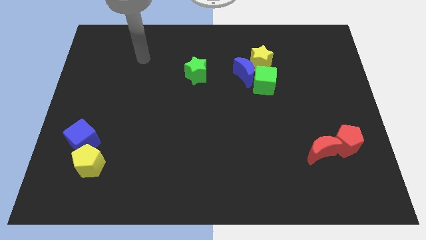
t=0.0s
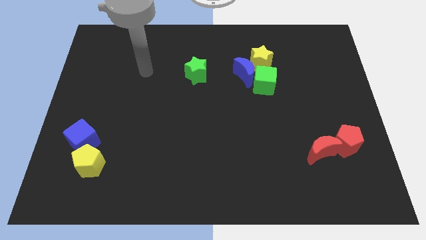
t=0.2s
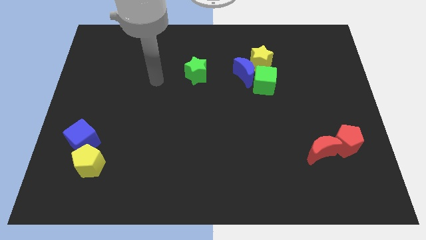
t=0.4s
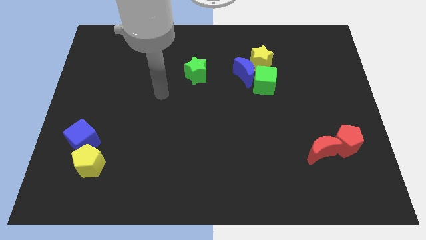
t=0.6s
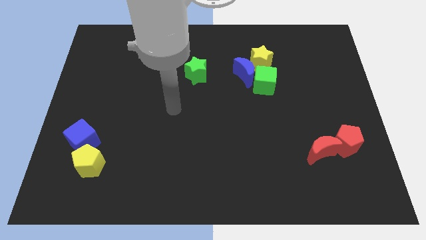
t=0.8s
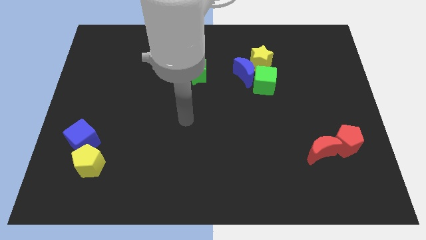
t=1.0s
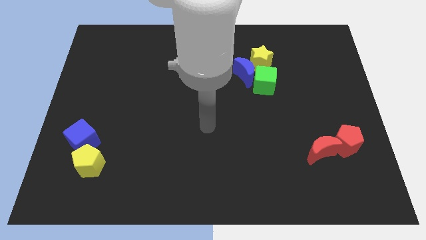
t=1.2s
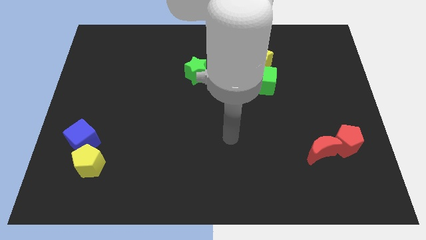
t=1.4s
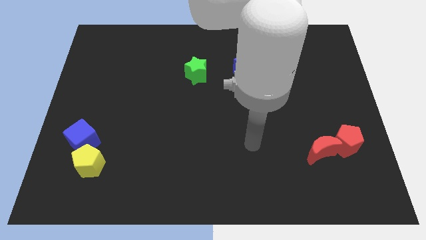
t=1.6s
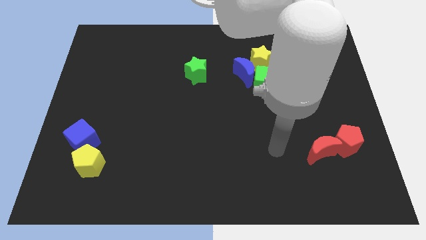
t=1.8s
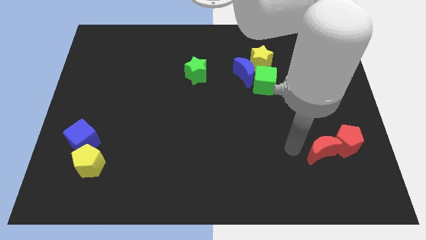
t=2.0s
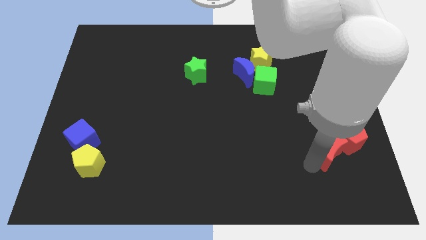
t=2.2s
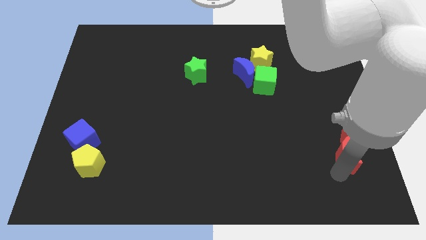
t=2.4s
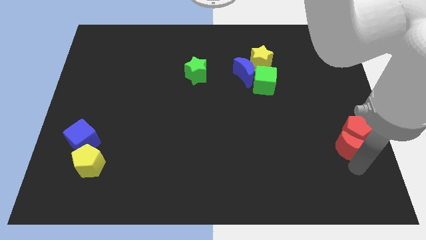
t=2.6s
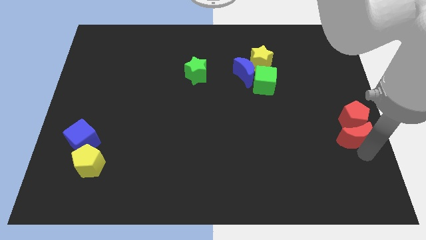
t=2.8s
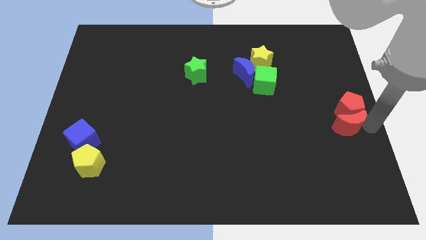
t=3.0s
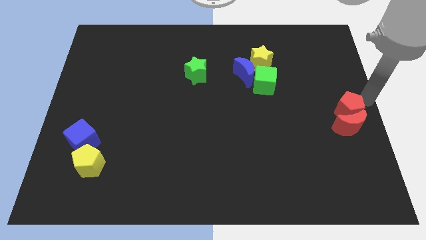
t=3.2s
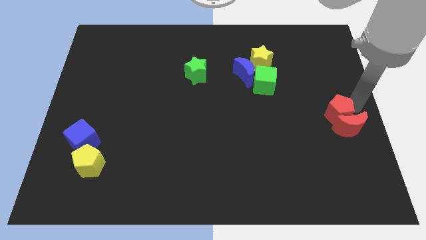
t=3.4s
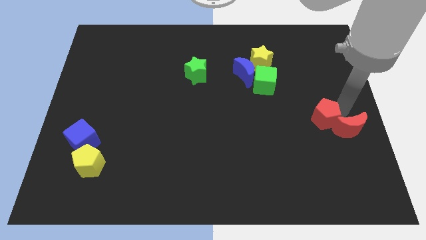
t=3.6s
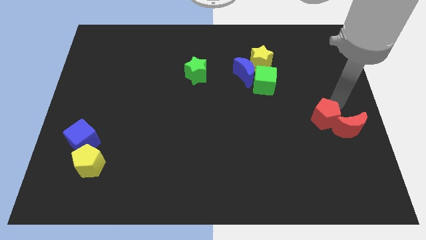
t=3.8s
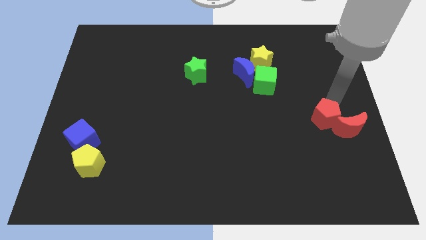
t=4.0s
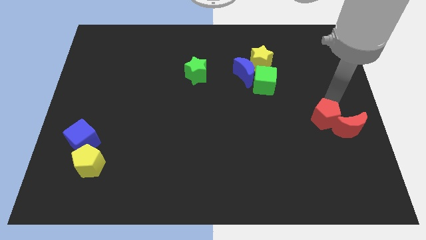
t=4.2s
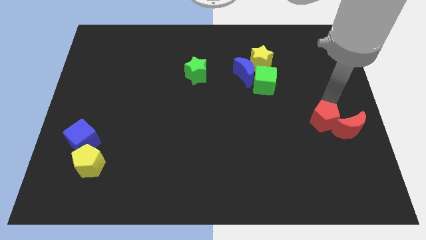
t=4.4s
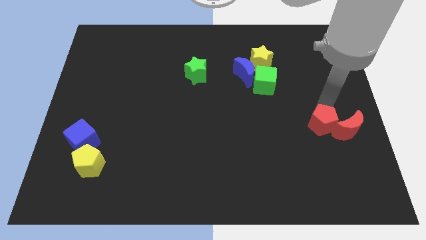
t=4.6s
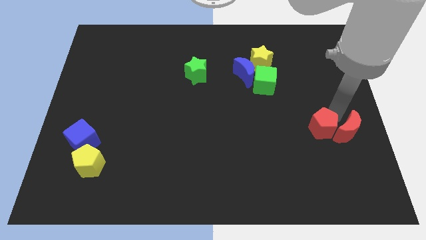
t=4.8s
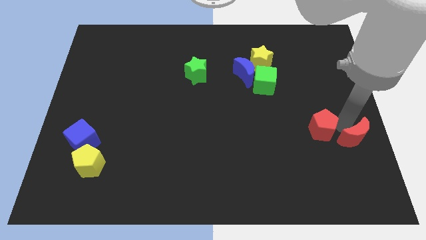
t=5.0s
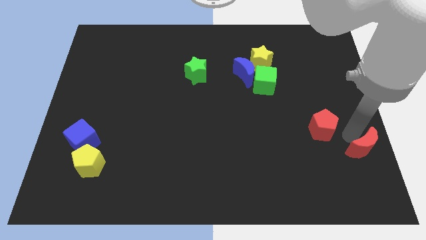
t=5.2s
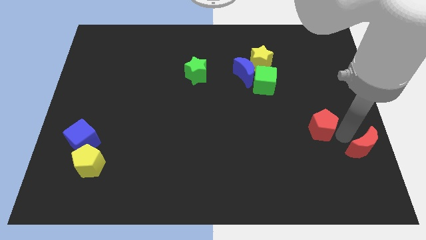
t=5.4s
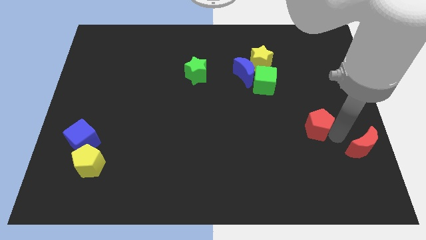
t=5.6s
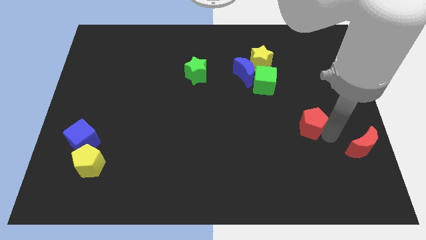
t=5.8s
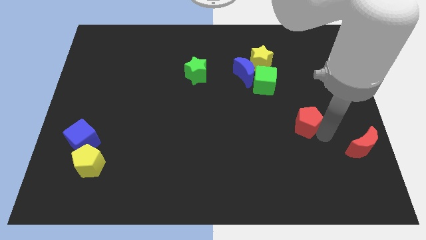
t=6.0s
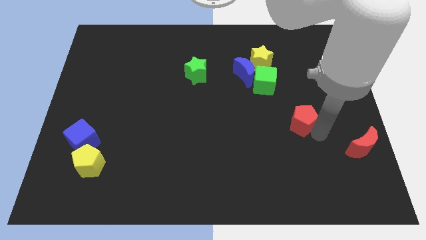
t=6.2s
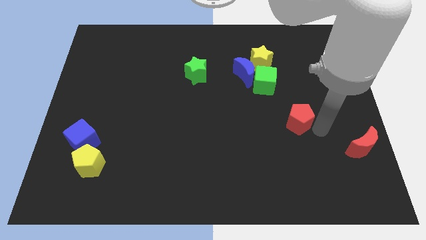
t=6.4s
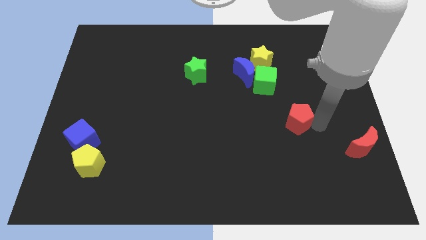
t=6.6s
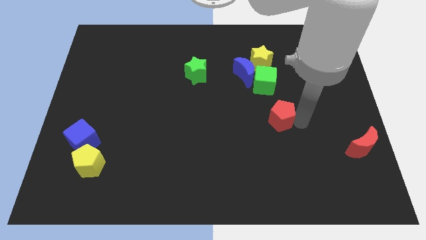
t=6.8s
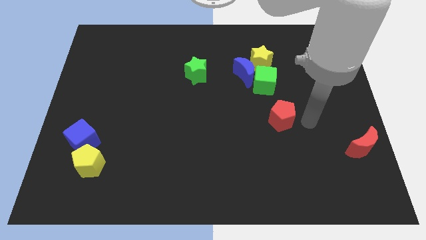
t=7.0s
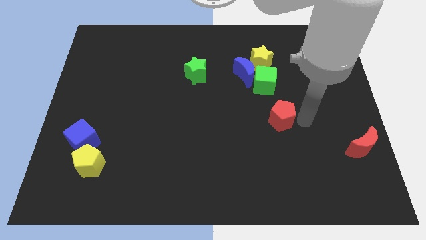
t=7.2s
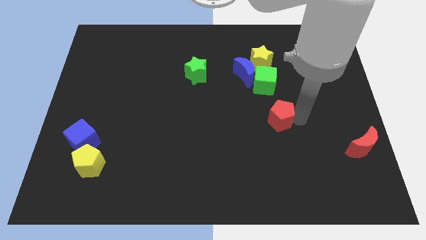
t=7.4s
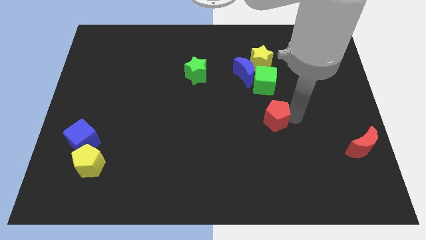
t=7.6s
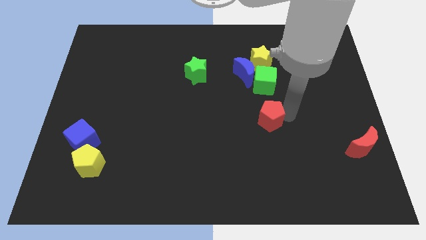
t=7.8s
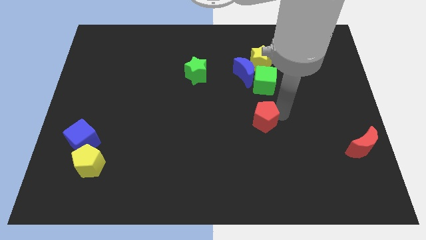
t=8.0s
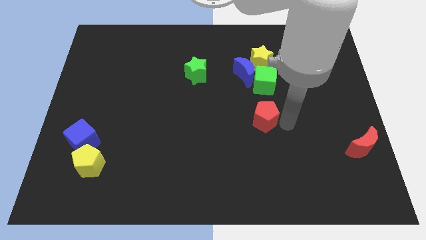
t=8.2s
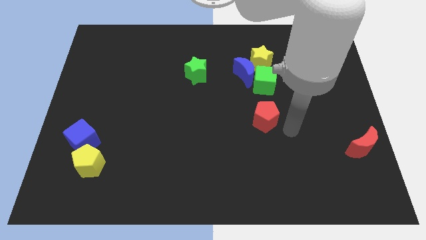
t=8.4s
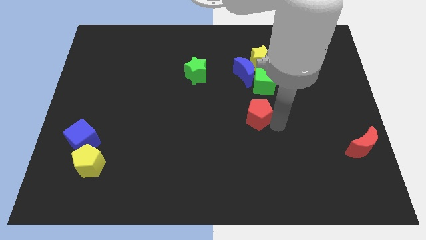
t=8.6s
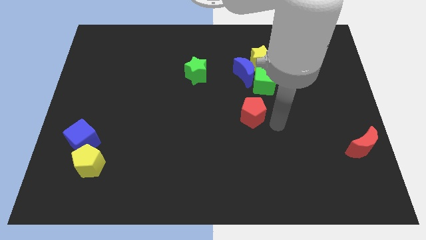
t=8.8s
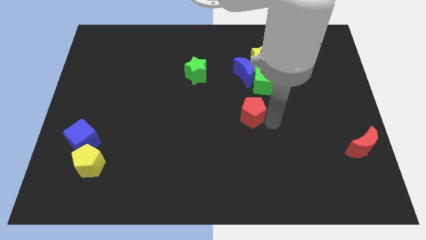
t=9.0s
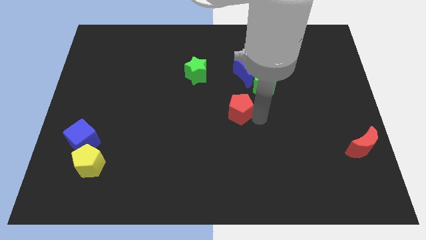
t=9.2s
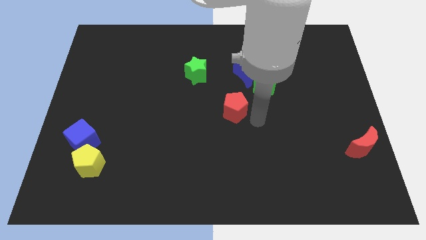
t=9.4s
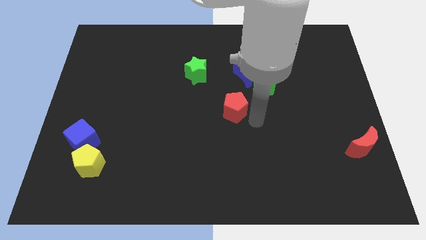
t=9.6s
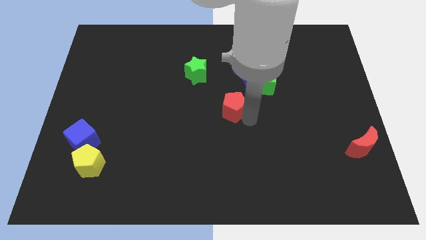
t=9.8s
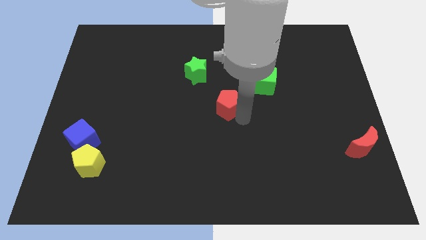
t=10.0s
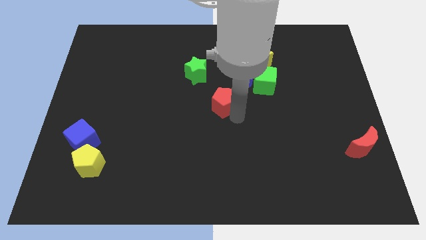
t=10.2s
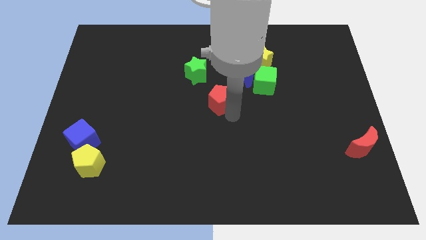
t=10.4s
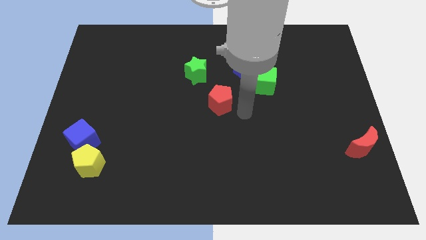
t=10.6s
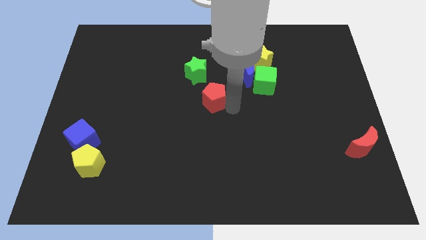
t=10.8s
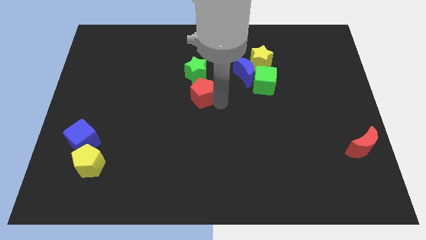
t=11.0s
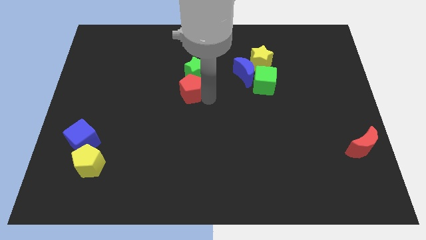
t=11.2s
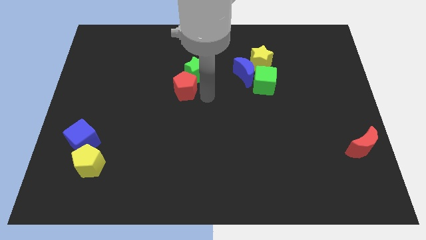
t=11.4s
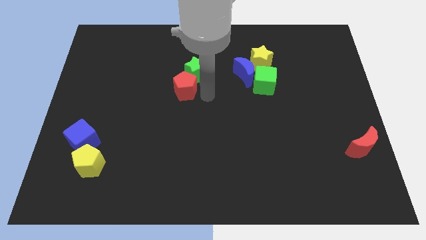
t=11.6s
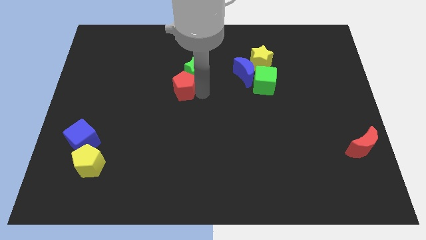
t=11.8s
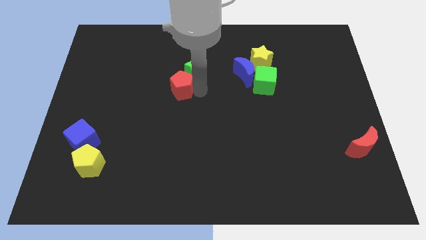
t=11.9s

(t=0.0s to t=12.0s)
slide the red pentagon to the left side of the green star
